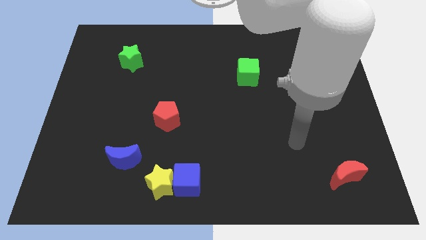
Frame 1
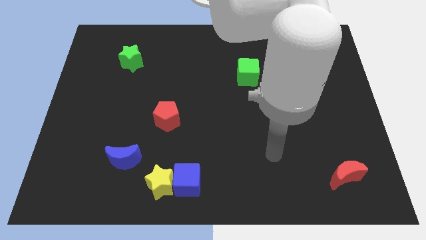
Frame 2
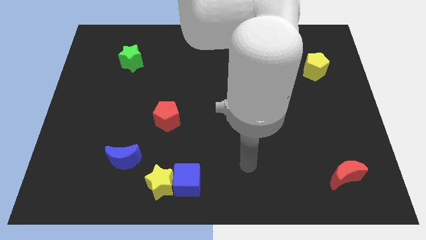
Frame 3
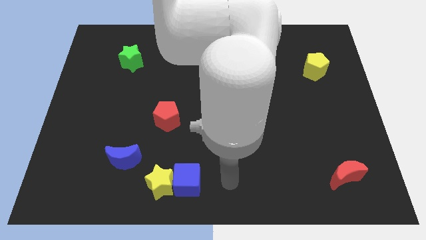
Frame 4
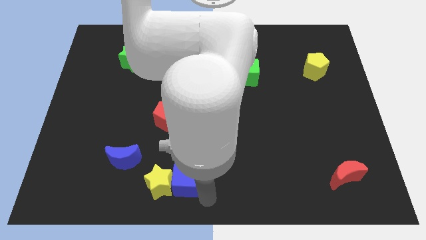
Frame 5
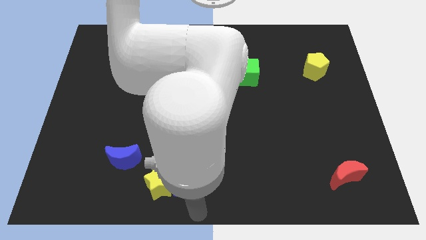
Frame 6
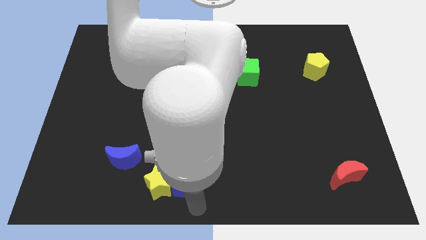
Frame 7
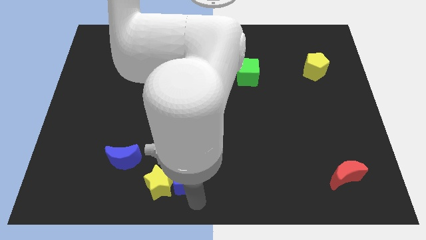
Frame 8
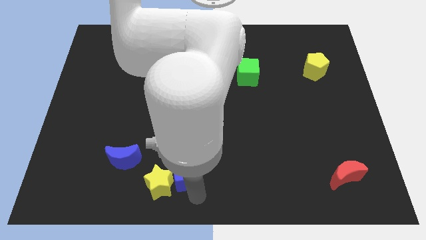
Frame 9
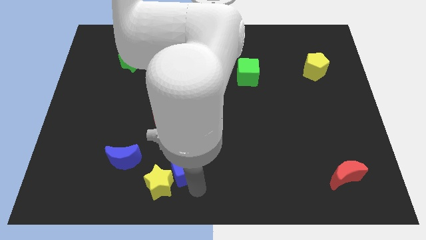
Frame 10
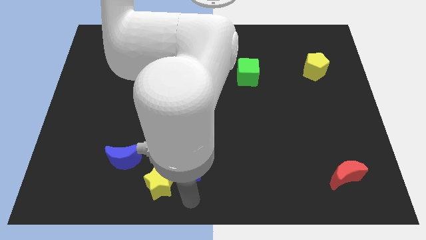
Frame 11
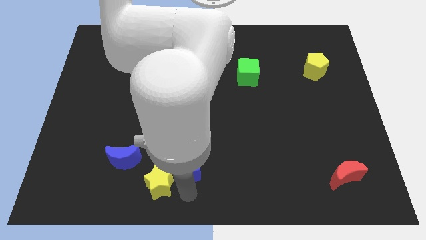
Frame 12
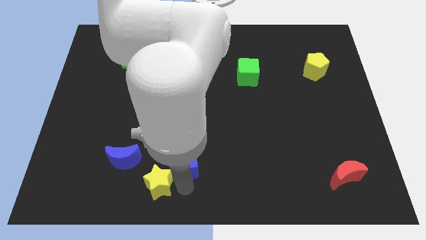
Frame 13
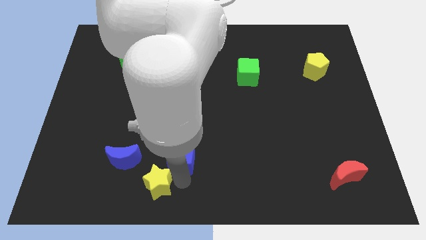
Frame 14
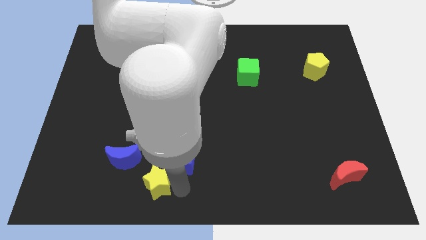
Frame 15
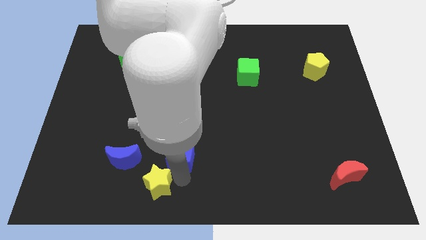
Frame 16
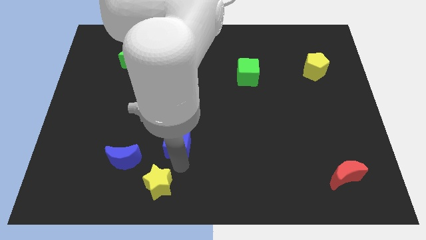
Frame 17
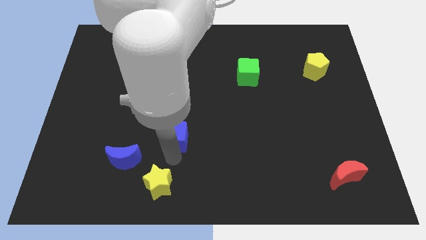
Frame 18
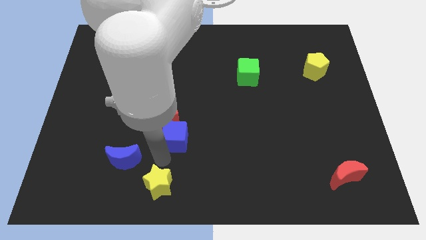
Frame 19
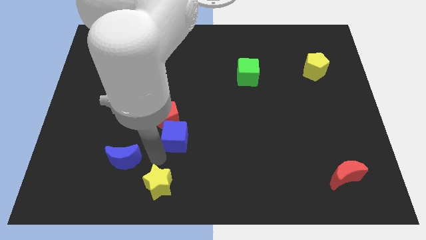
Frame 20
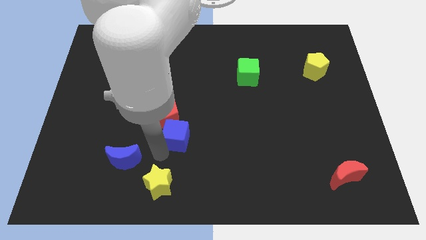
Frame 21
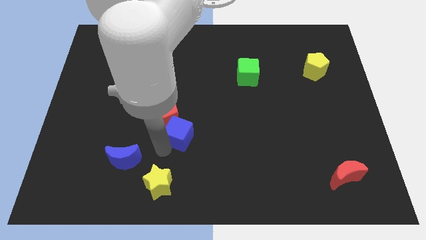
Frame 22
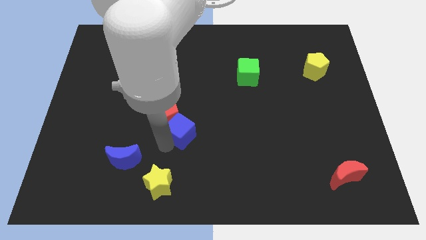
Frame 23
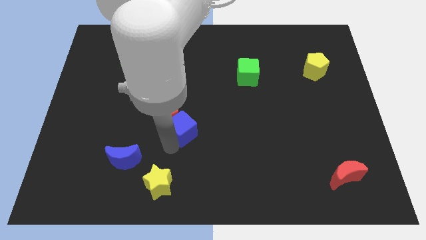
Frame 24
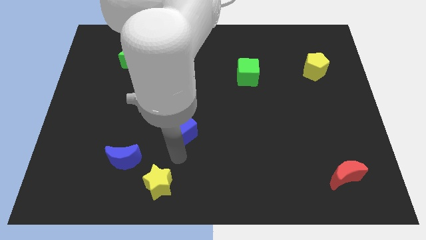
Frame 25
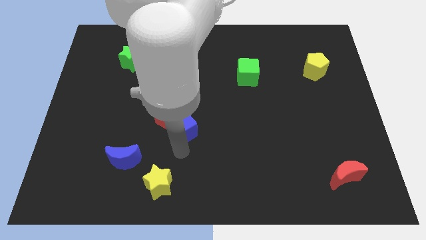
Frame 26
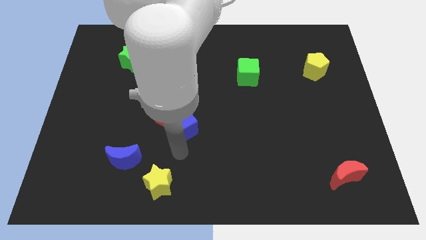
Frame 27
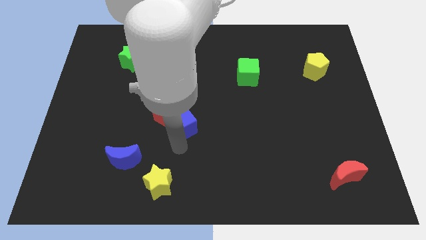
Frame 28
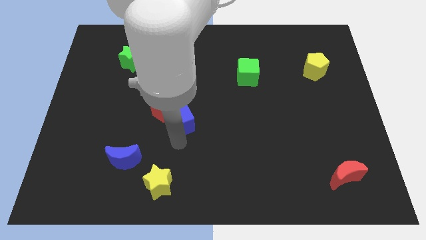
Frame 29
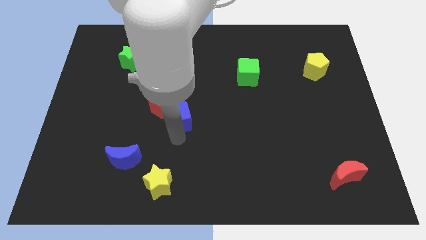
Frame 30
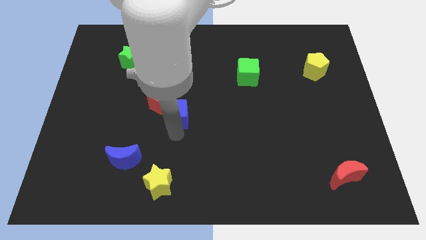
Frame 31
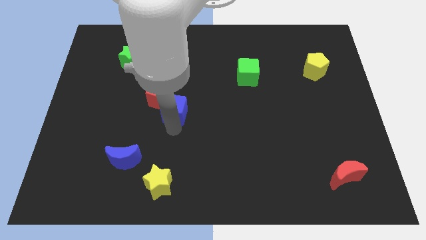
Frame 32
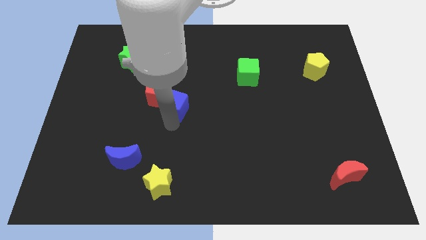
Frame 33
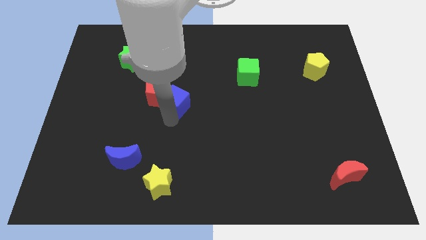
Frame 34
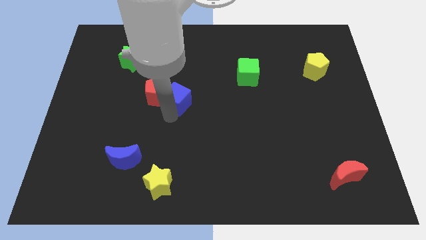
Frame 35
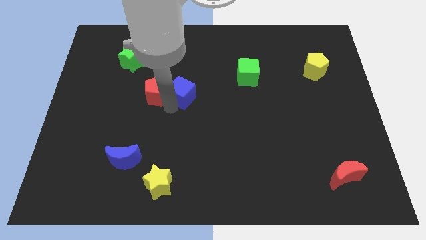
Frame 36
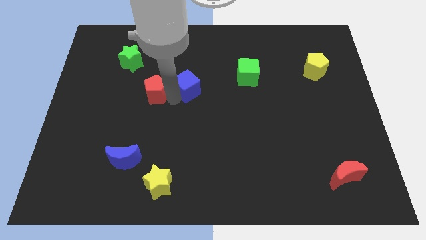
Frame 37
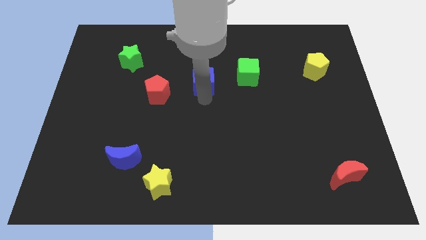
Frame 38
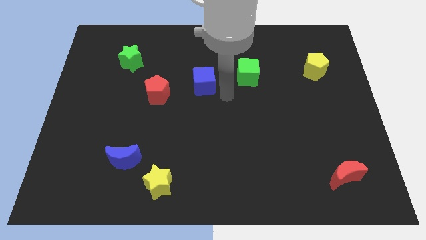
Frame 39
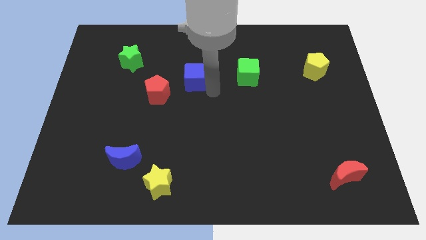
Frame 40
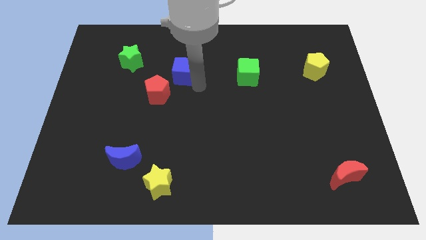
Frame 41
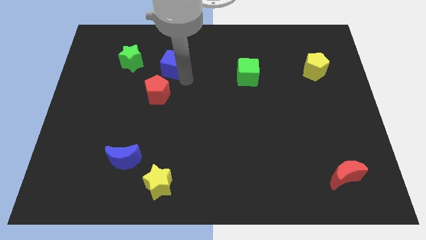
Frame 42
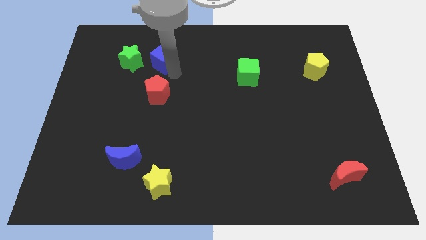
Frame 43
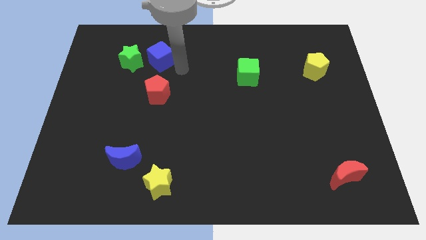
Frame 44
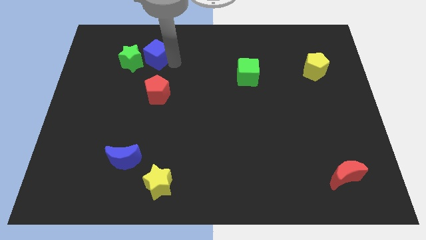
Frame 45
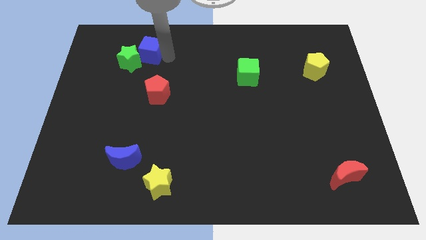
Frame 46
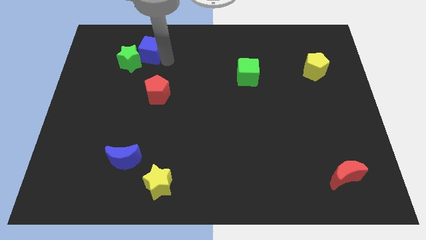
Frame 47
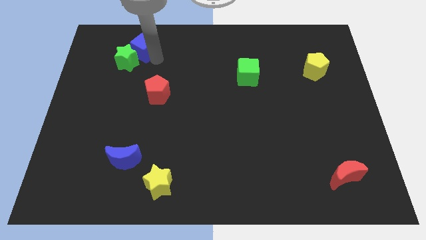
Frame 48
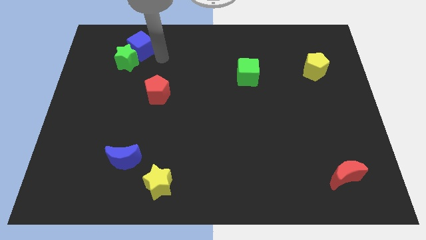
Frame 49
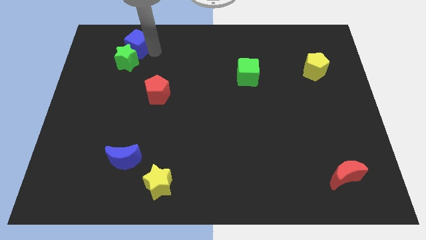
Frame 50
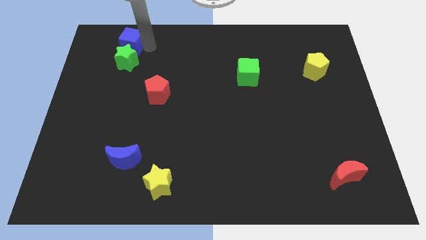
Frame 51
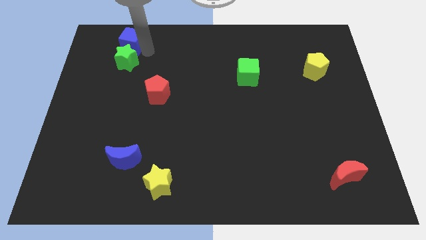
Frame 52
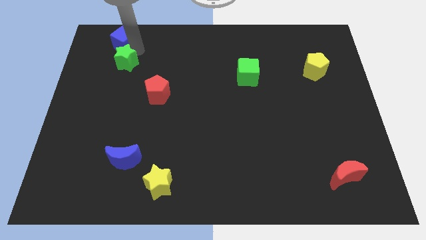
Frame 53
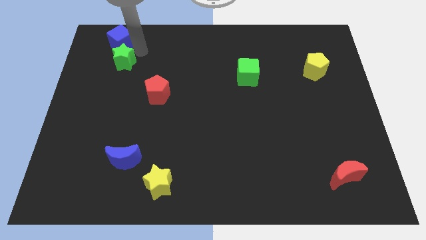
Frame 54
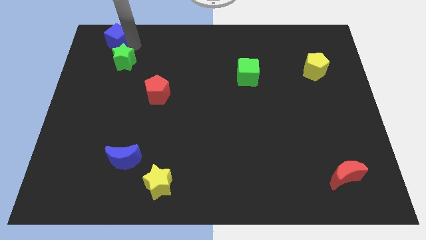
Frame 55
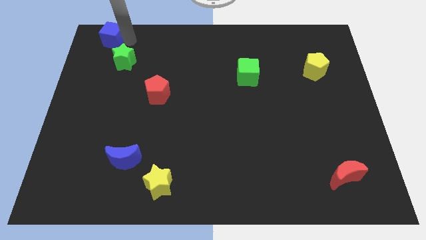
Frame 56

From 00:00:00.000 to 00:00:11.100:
slide the blue cube to the top left of the board

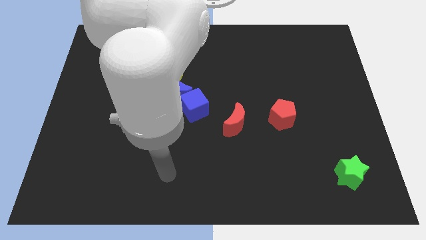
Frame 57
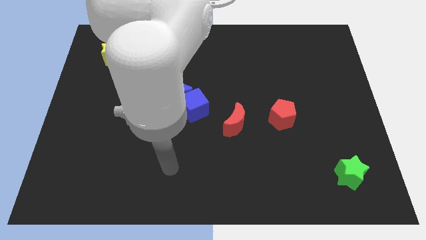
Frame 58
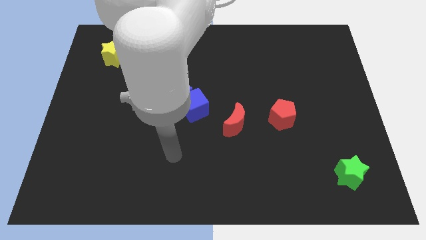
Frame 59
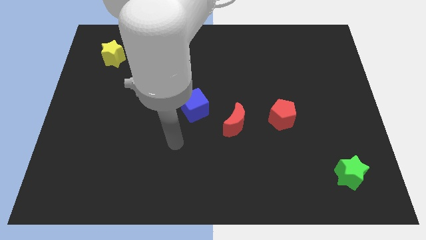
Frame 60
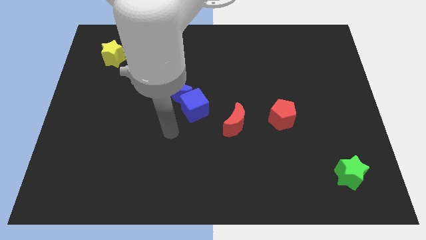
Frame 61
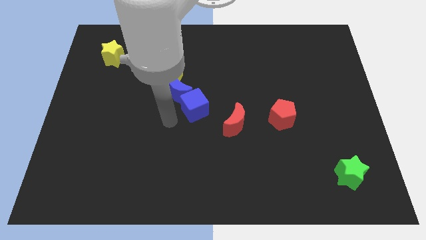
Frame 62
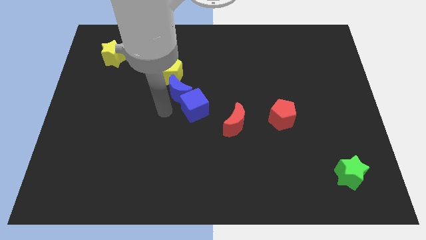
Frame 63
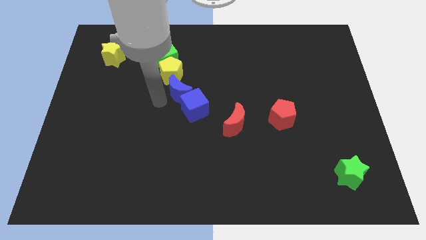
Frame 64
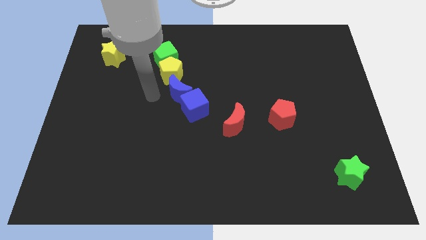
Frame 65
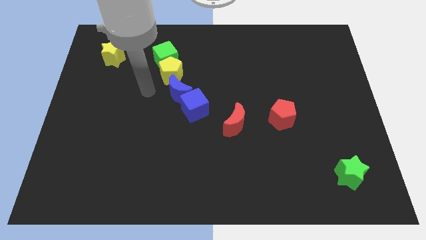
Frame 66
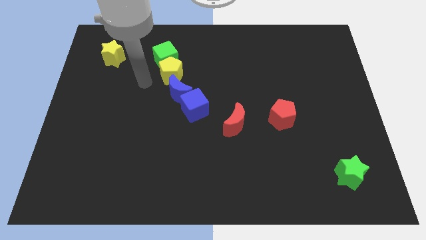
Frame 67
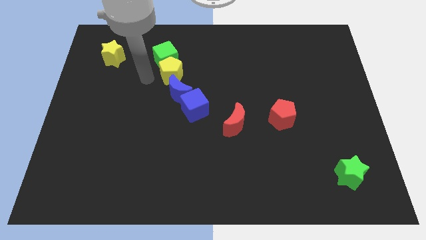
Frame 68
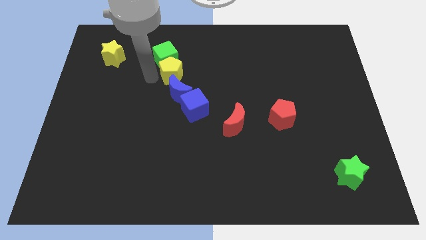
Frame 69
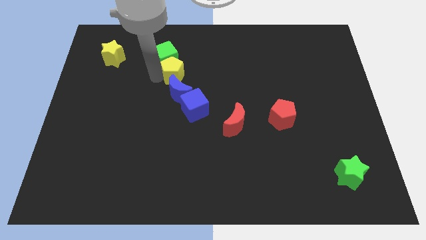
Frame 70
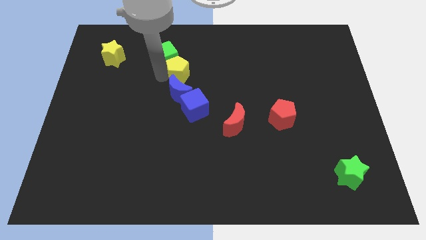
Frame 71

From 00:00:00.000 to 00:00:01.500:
move the yellow pentagon to the center of the board

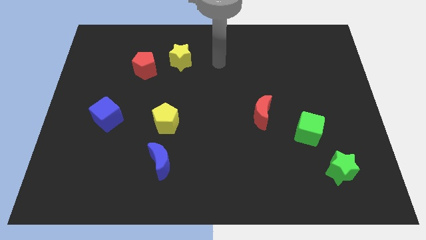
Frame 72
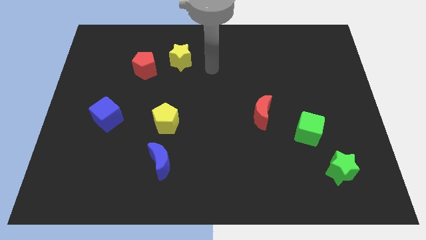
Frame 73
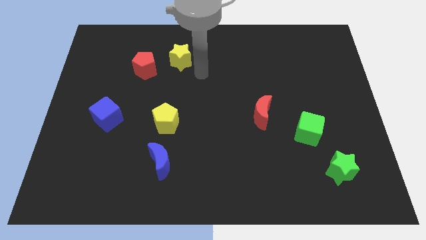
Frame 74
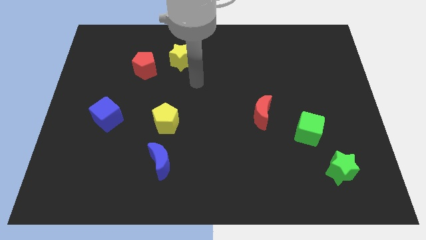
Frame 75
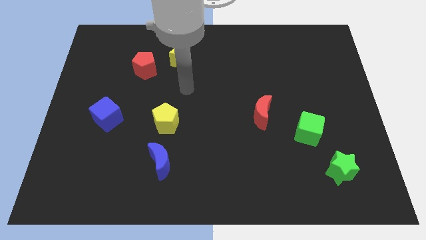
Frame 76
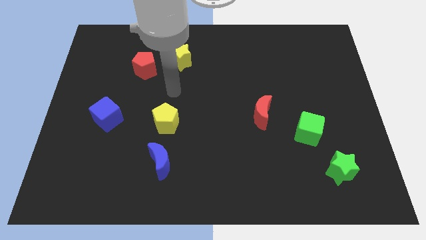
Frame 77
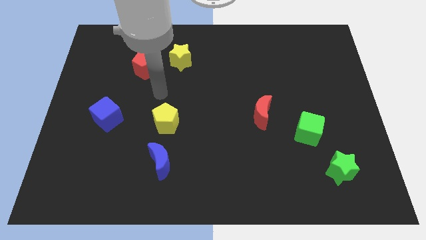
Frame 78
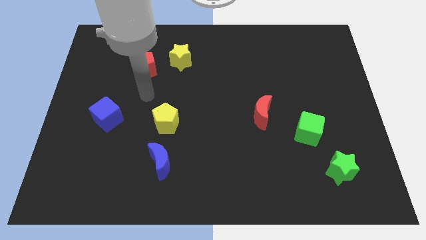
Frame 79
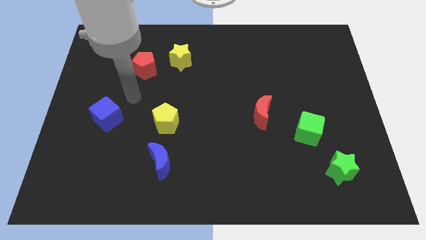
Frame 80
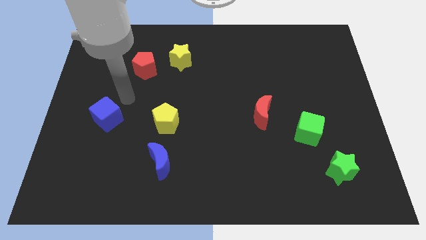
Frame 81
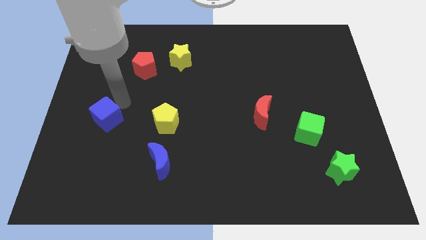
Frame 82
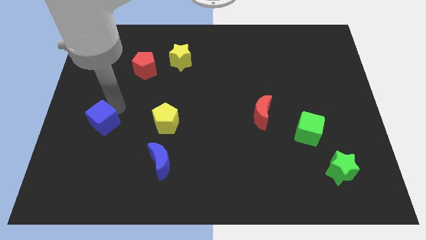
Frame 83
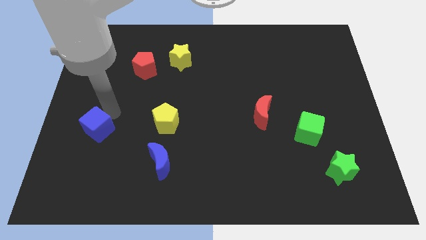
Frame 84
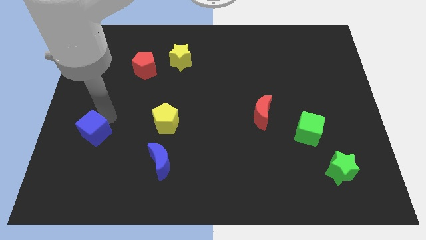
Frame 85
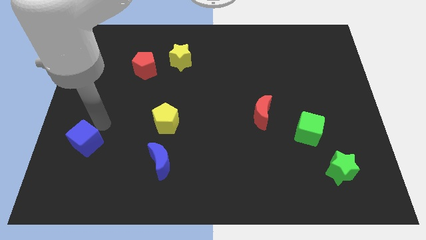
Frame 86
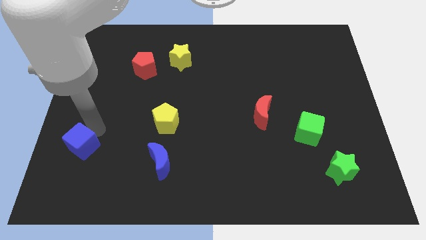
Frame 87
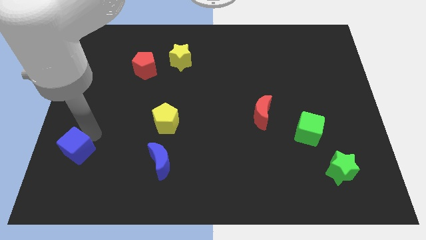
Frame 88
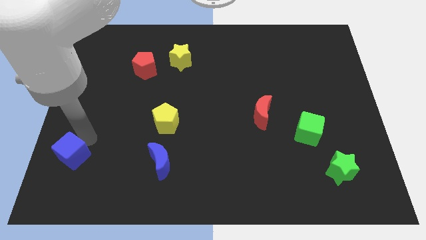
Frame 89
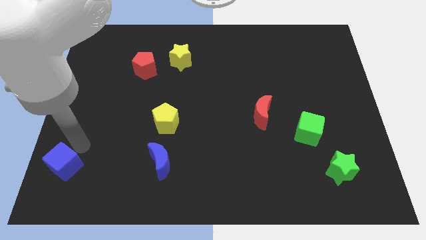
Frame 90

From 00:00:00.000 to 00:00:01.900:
slide the blue cube to the bottom left of the board
